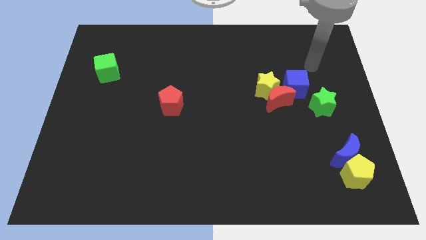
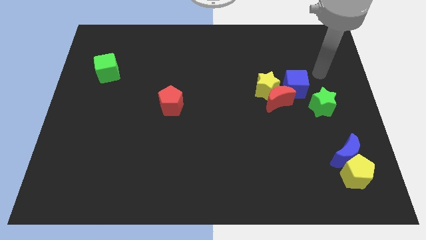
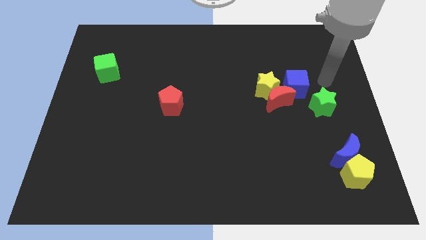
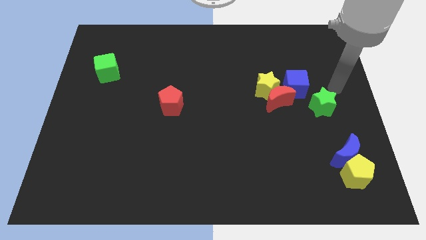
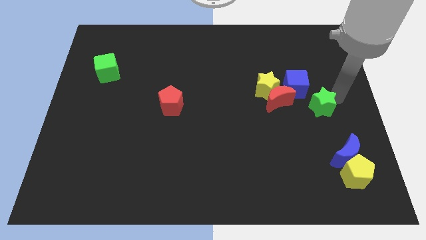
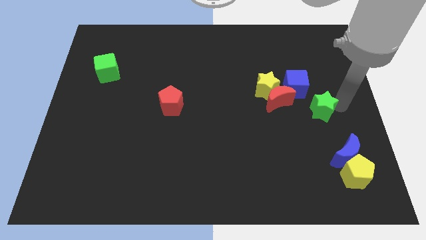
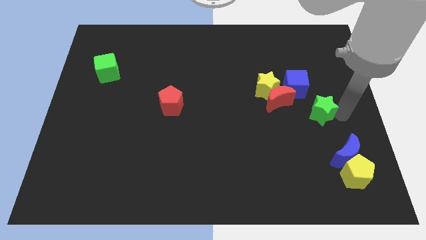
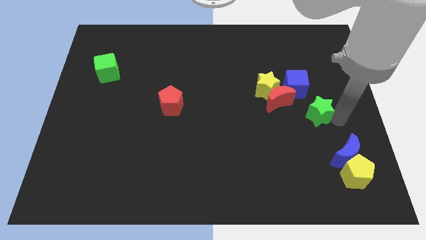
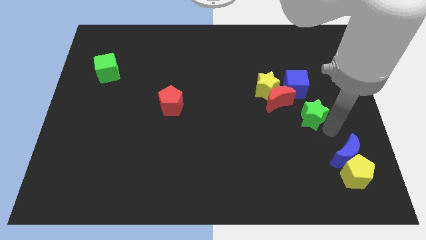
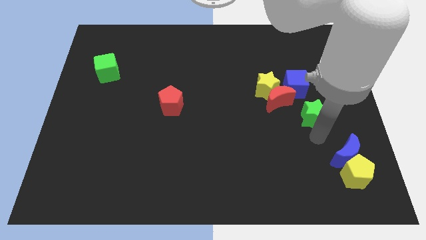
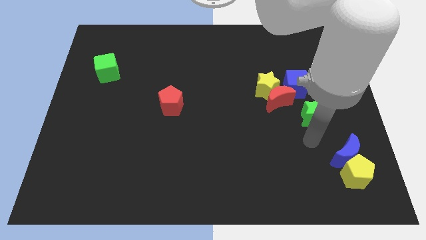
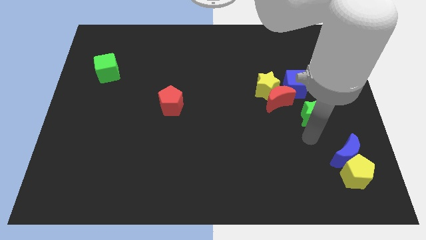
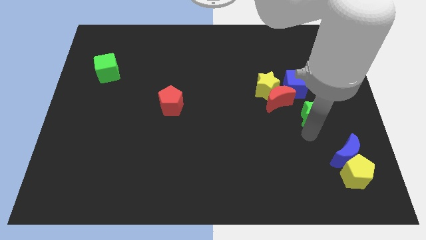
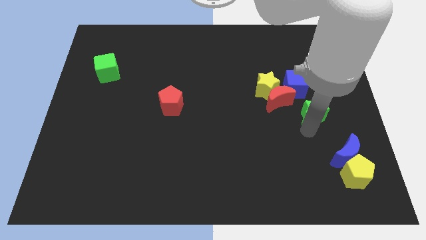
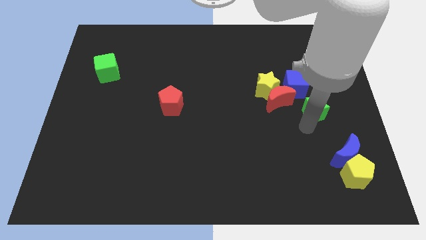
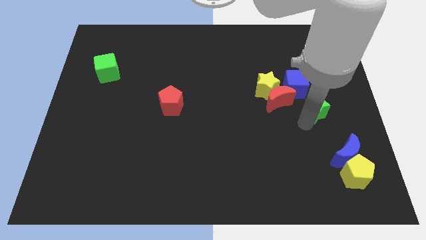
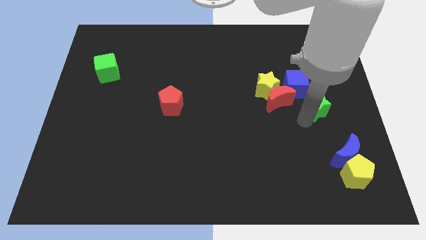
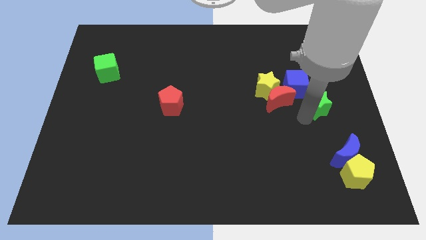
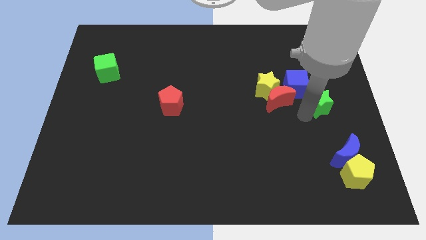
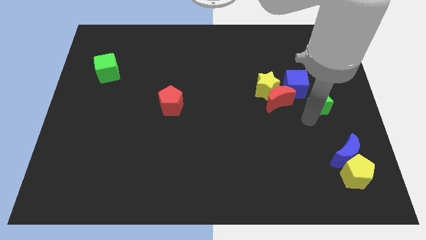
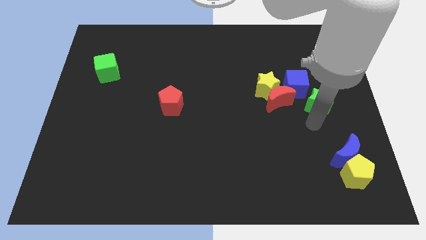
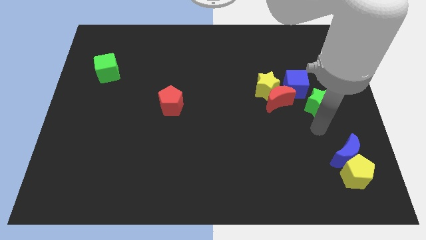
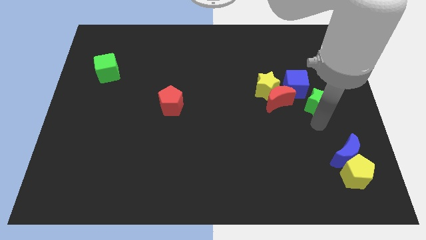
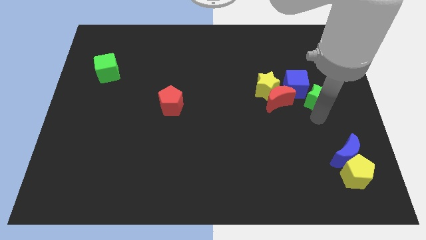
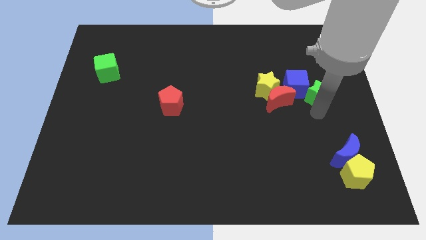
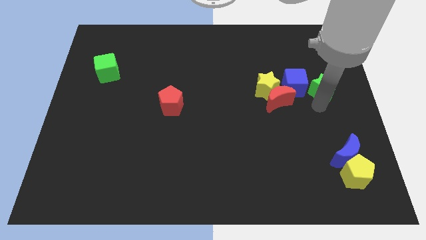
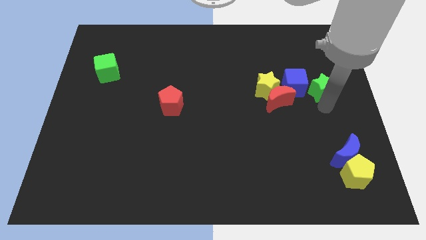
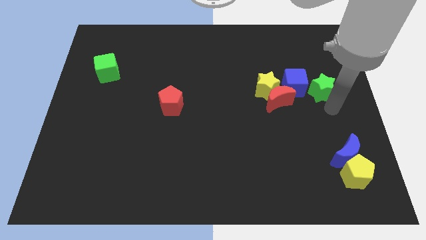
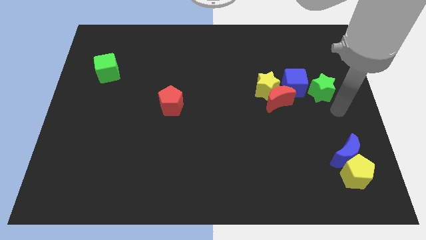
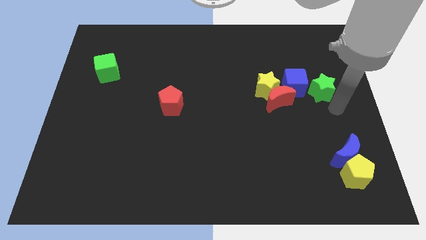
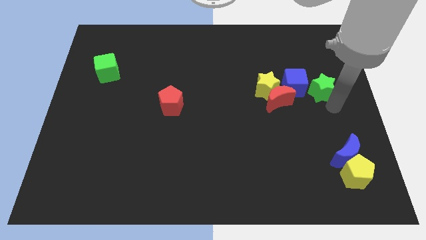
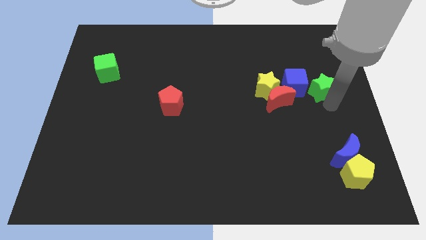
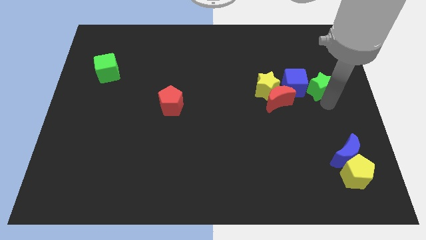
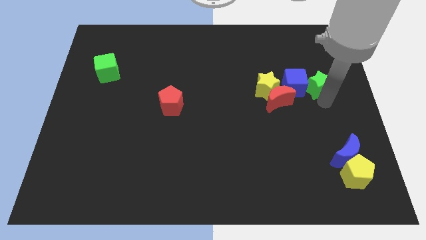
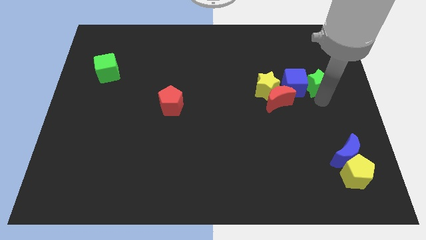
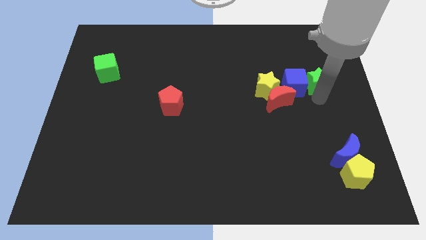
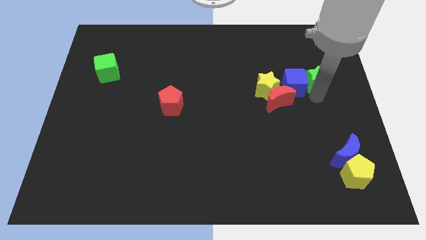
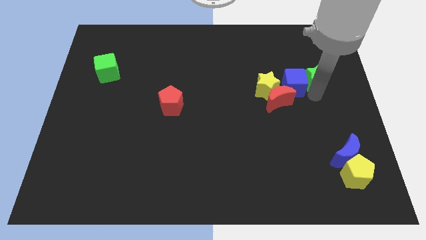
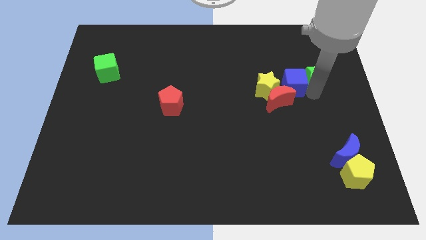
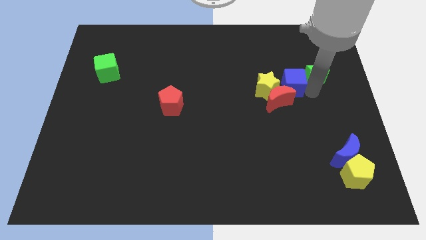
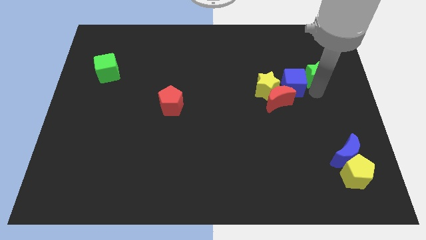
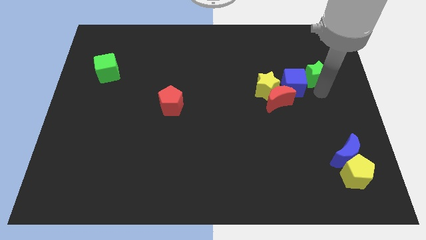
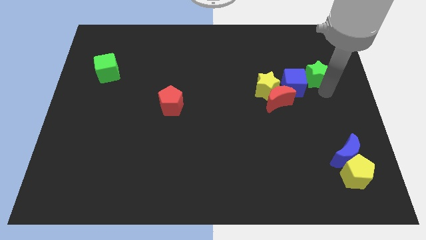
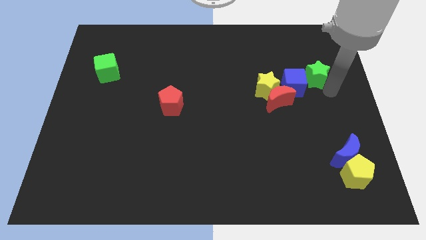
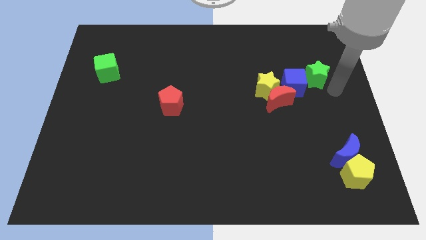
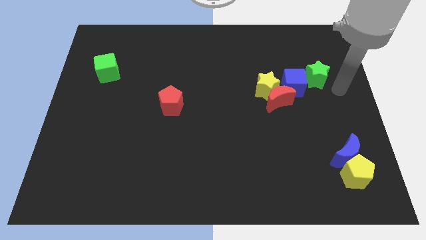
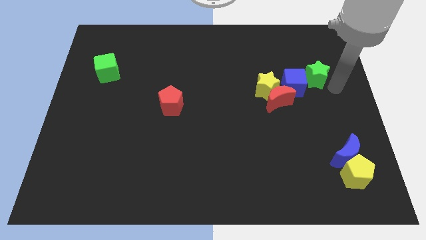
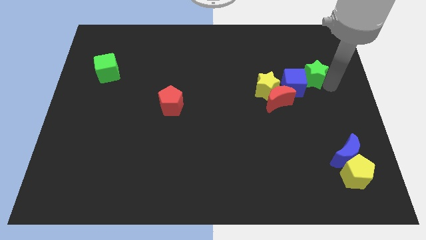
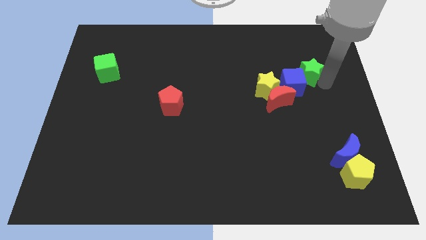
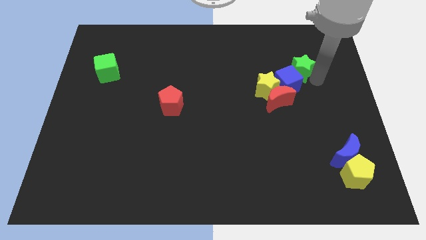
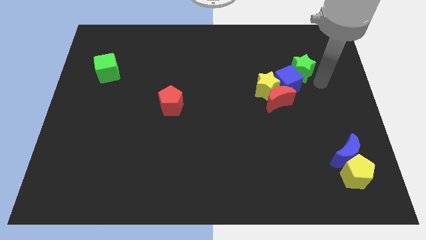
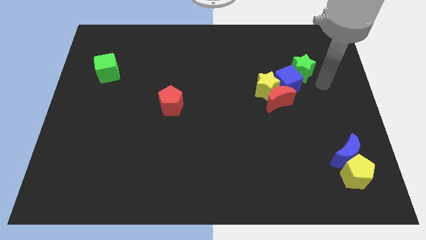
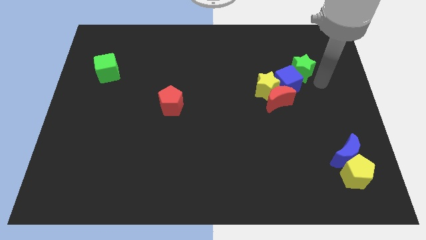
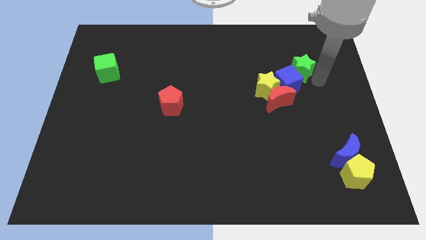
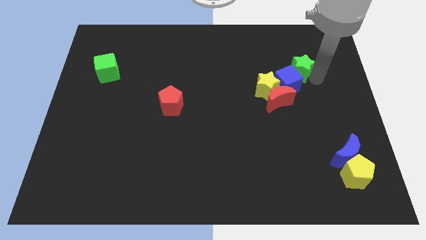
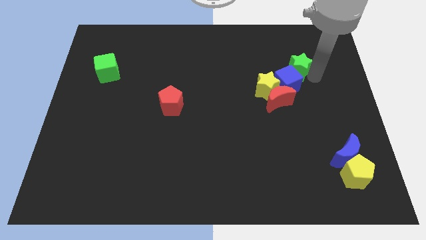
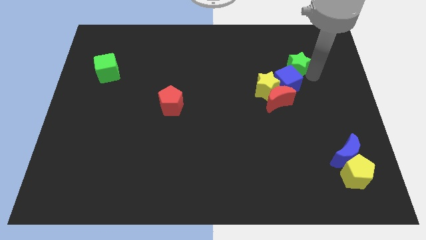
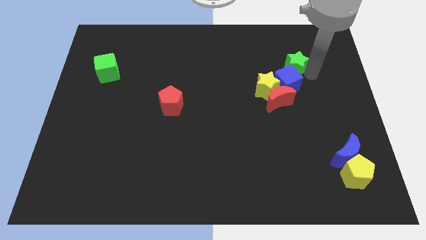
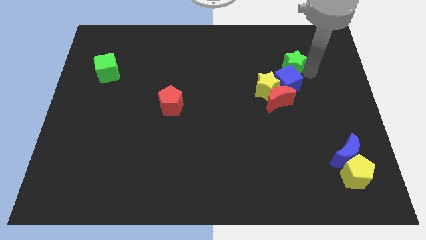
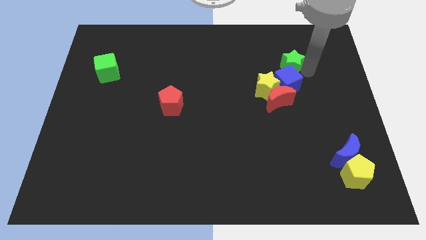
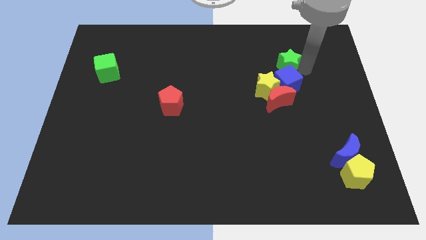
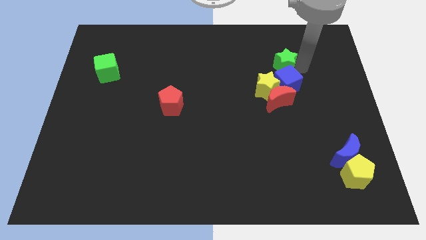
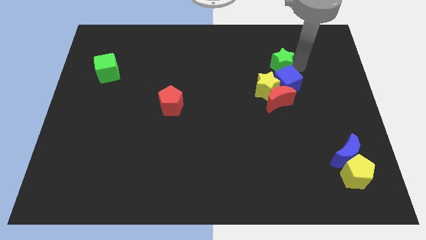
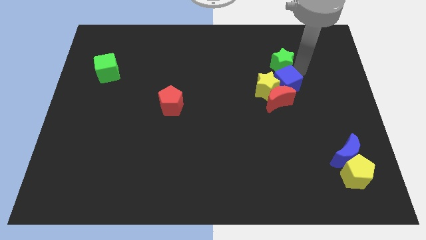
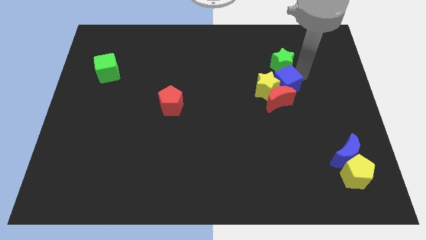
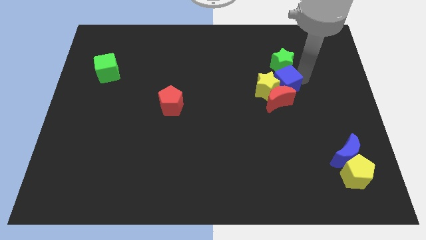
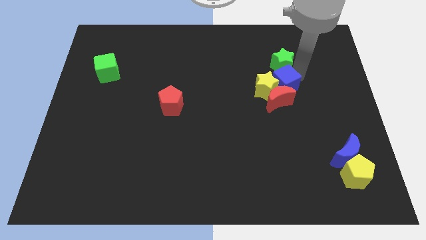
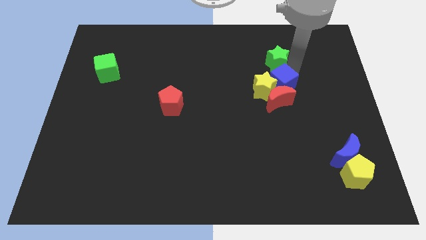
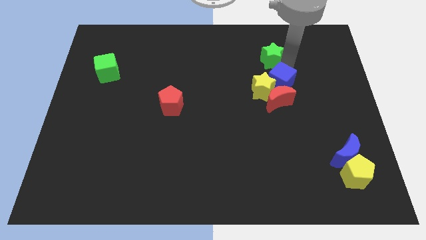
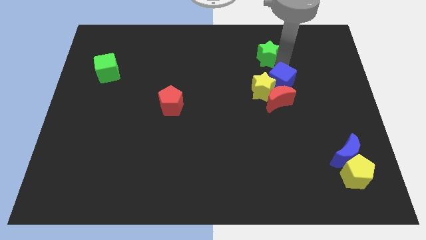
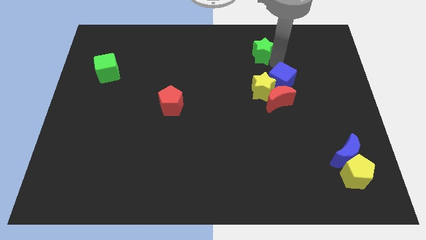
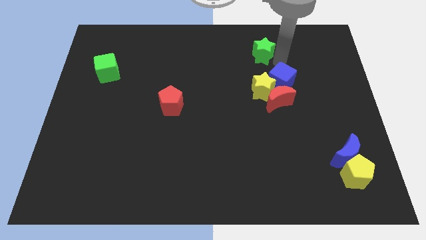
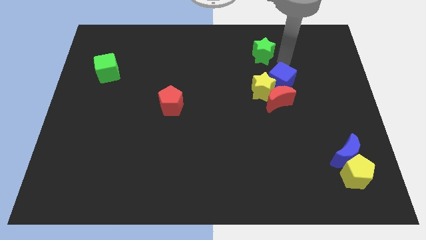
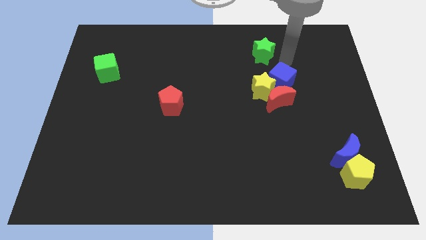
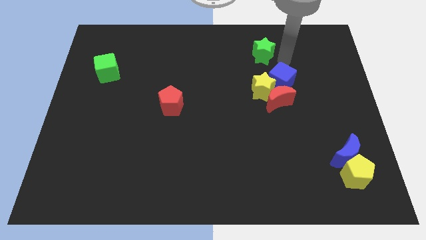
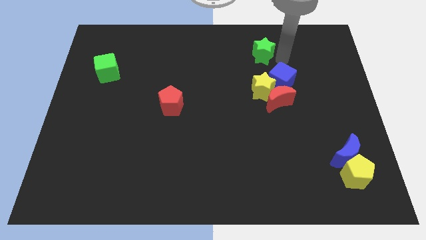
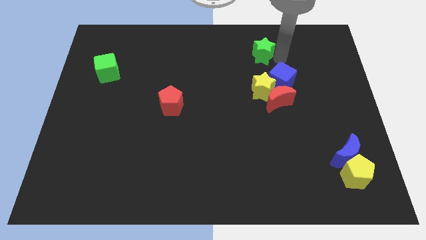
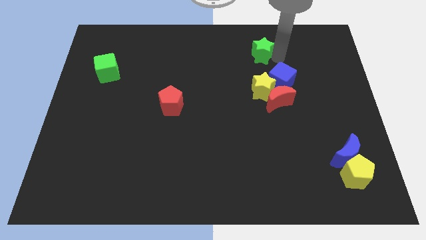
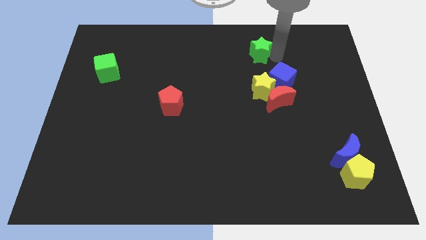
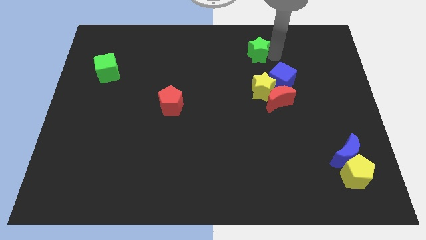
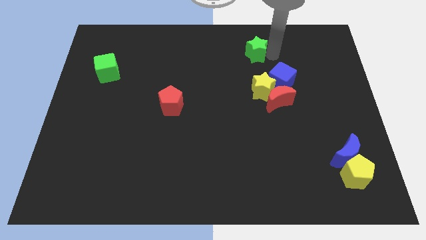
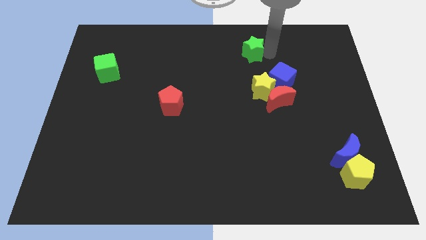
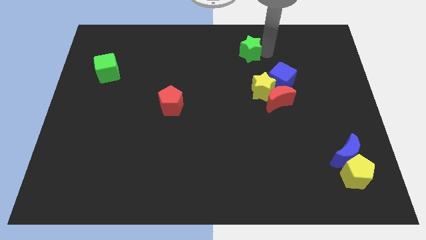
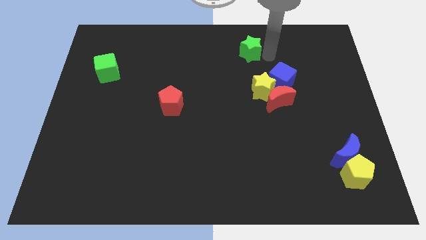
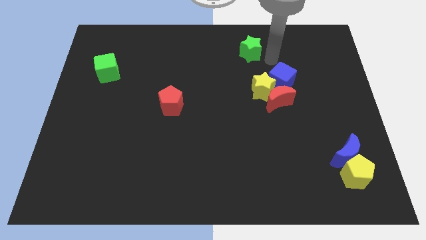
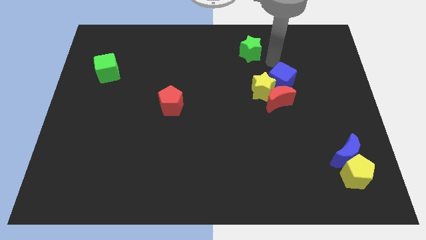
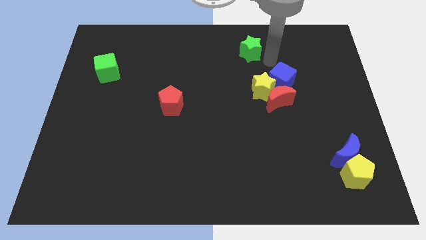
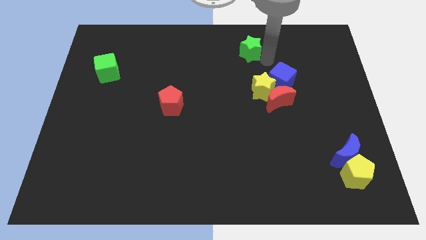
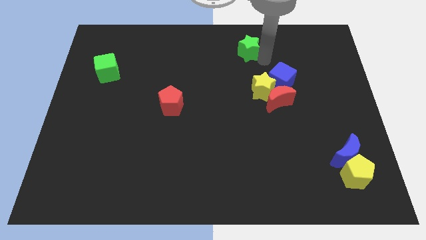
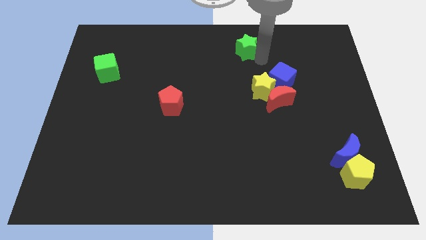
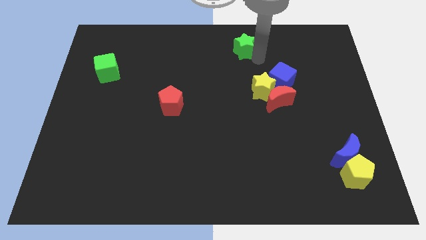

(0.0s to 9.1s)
put the green star to the towards your base
